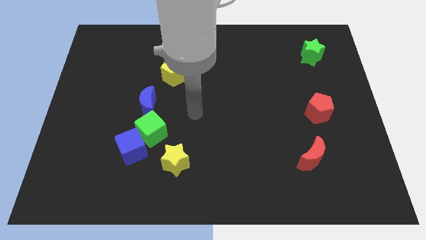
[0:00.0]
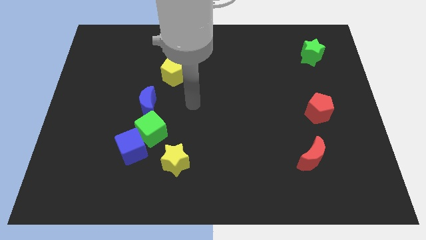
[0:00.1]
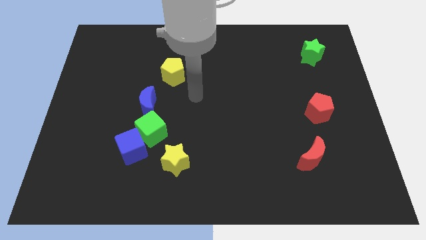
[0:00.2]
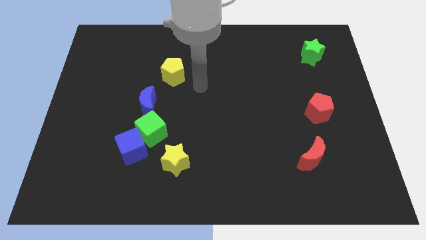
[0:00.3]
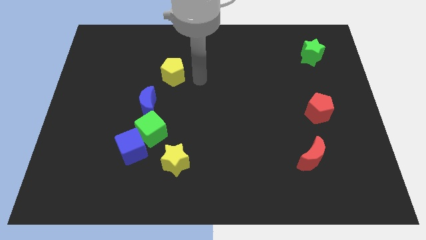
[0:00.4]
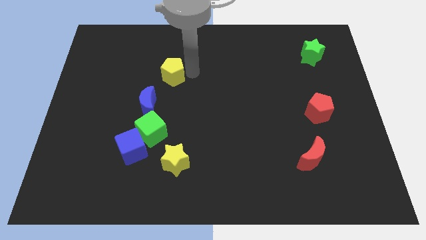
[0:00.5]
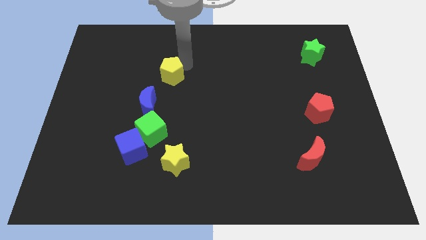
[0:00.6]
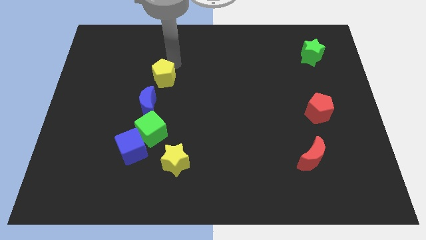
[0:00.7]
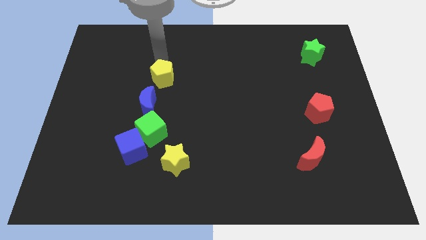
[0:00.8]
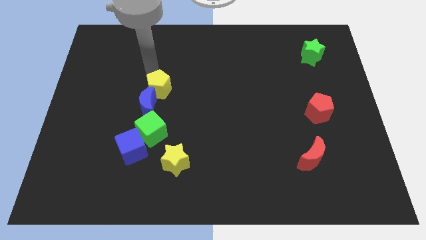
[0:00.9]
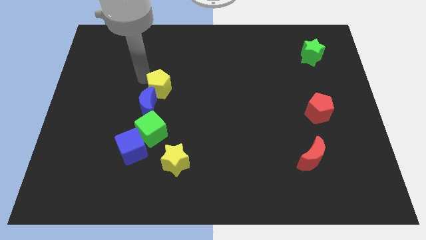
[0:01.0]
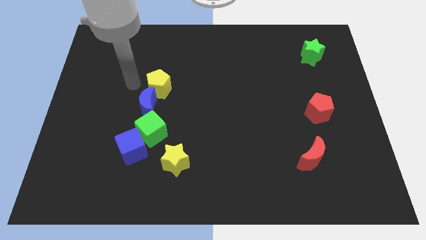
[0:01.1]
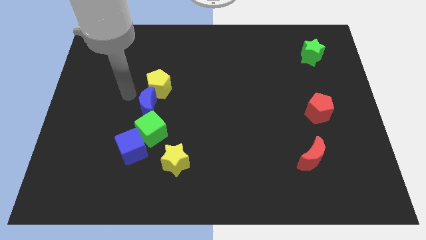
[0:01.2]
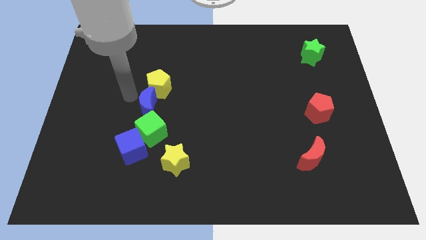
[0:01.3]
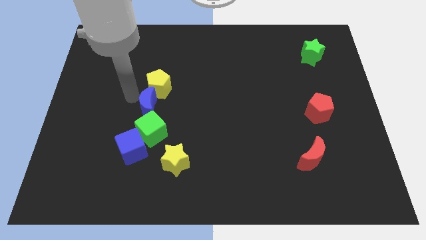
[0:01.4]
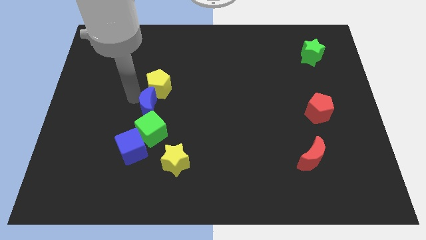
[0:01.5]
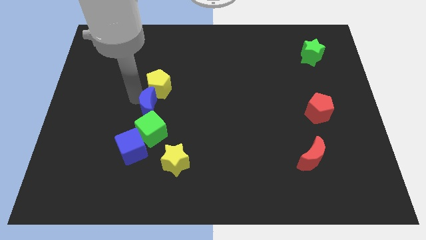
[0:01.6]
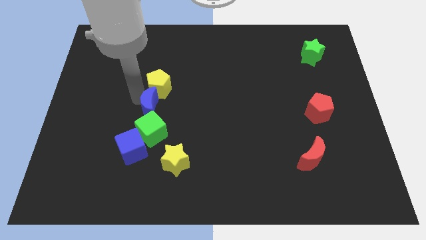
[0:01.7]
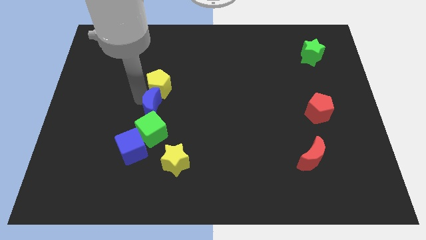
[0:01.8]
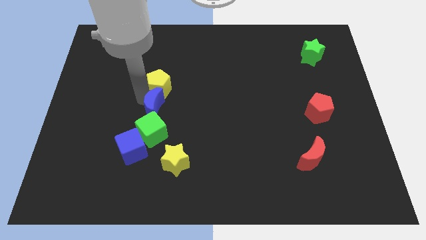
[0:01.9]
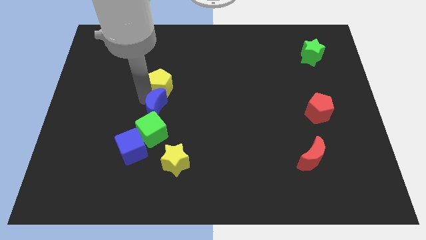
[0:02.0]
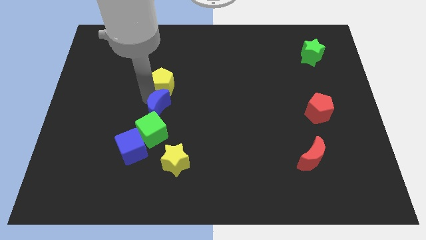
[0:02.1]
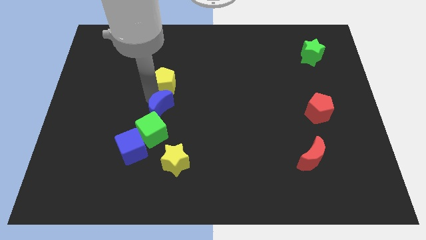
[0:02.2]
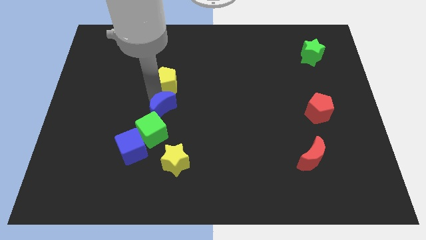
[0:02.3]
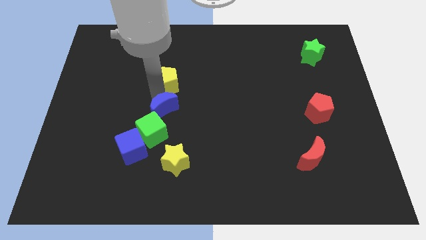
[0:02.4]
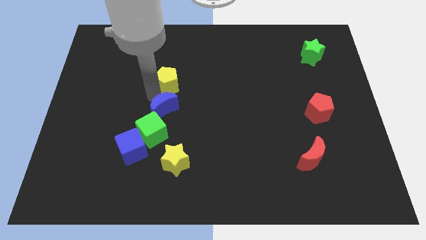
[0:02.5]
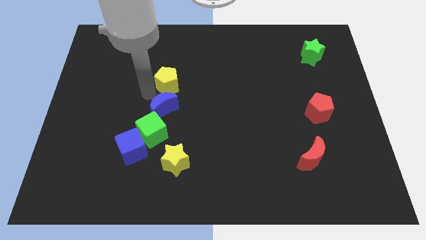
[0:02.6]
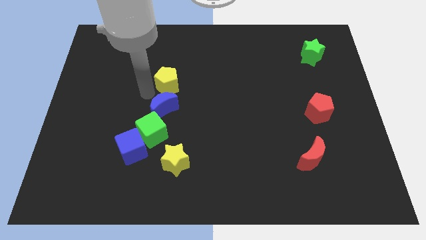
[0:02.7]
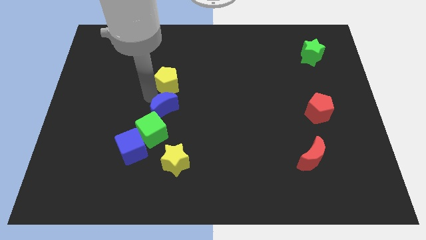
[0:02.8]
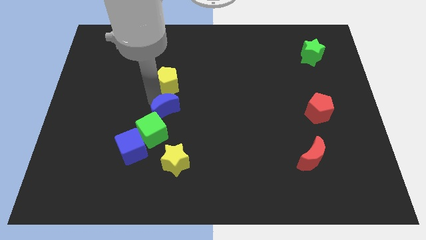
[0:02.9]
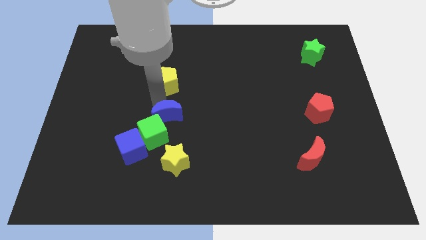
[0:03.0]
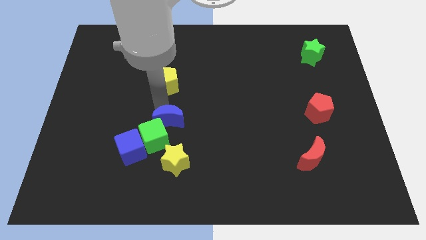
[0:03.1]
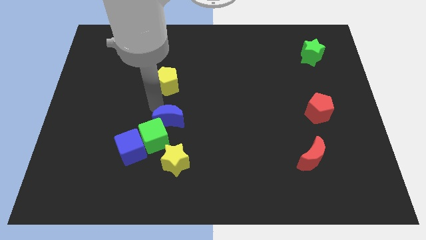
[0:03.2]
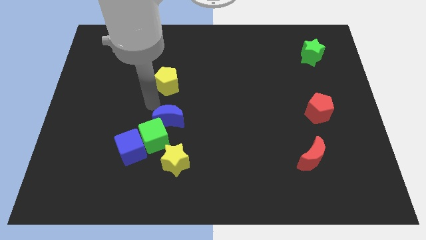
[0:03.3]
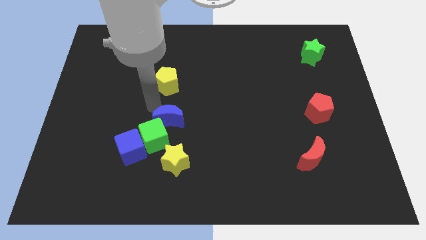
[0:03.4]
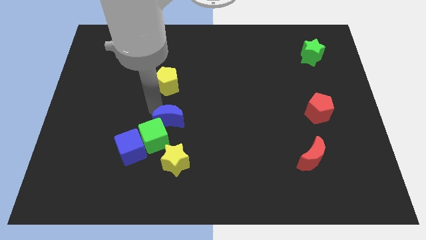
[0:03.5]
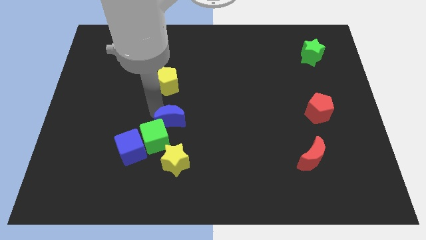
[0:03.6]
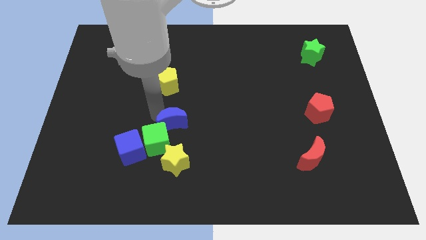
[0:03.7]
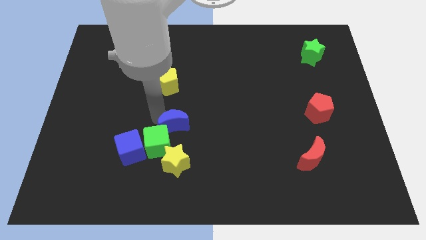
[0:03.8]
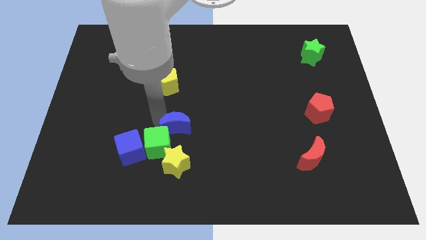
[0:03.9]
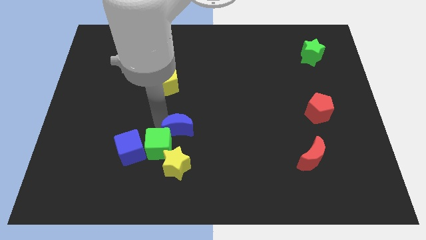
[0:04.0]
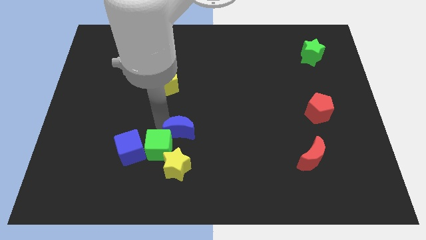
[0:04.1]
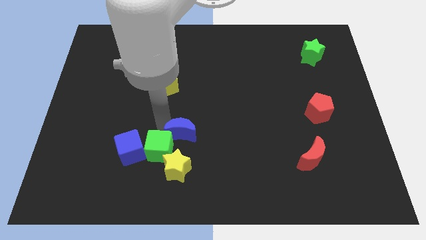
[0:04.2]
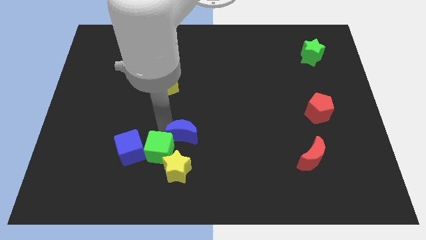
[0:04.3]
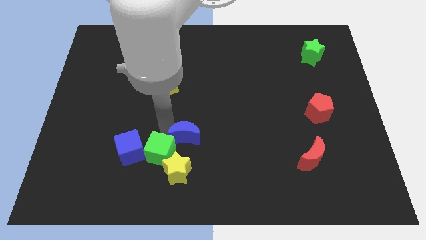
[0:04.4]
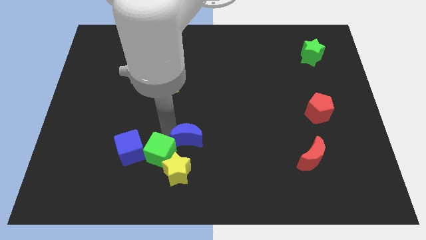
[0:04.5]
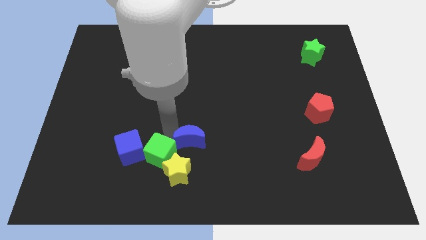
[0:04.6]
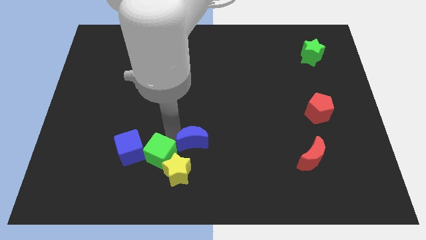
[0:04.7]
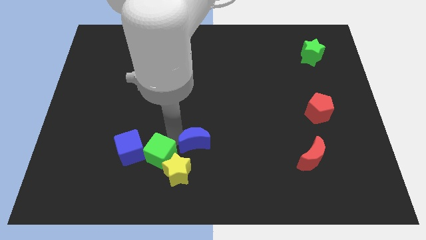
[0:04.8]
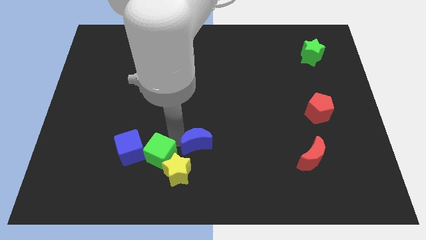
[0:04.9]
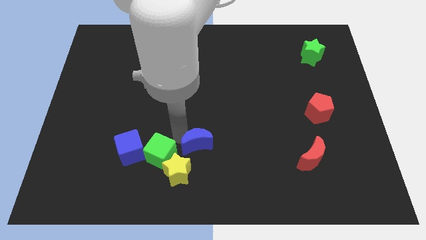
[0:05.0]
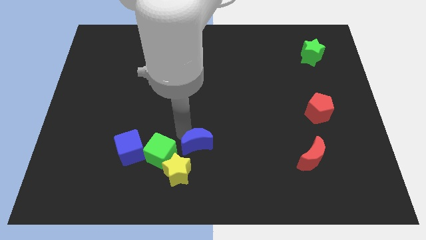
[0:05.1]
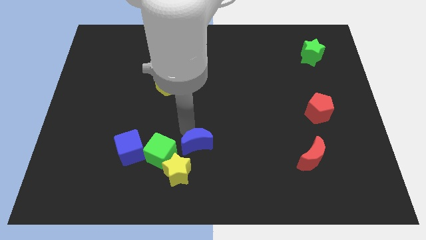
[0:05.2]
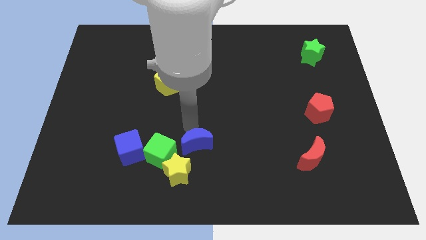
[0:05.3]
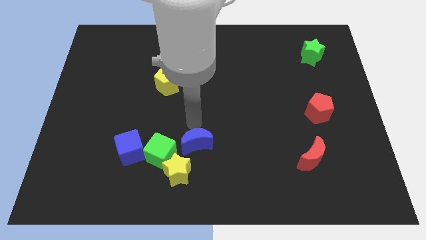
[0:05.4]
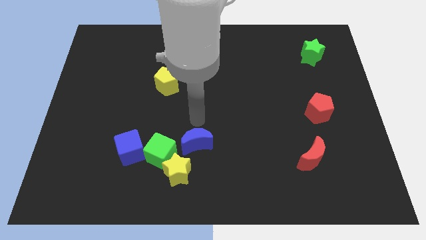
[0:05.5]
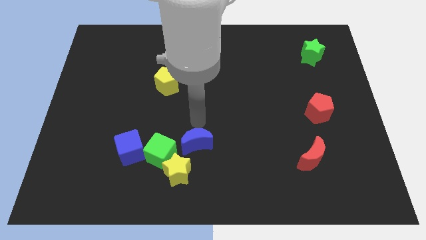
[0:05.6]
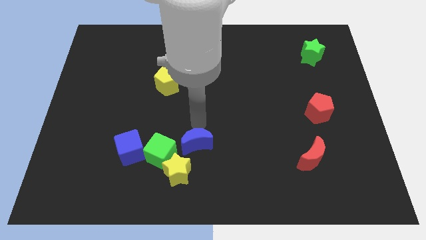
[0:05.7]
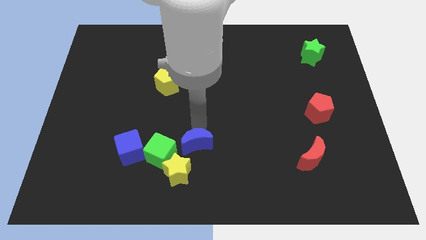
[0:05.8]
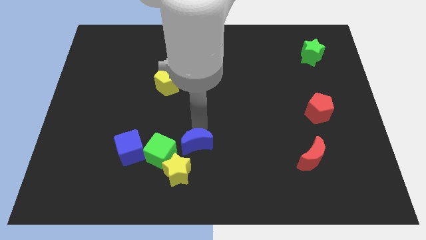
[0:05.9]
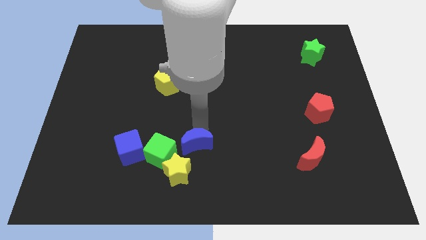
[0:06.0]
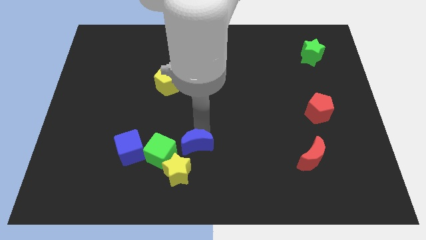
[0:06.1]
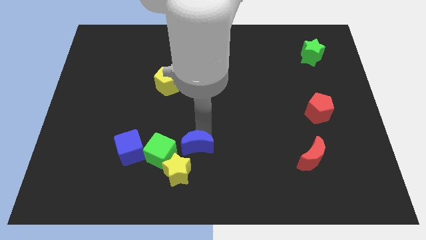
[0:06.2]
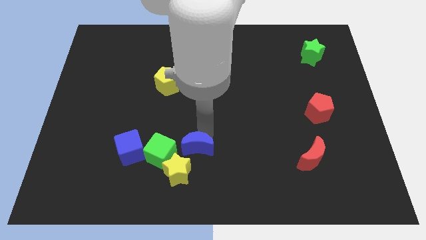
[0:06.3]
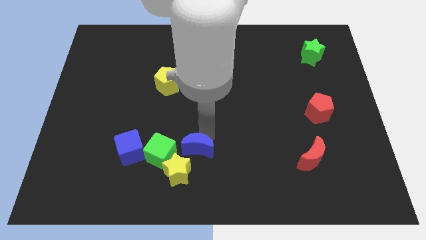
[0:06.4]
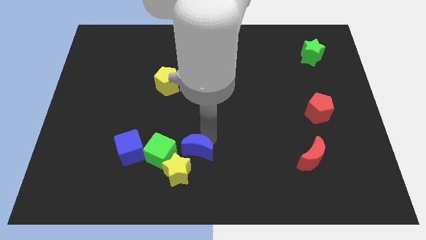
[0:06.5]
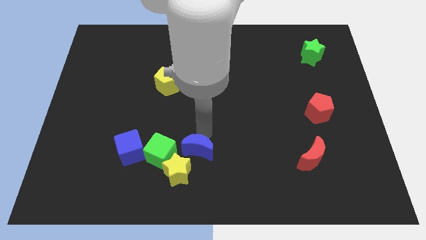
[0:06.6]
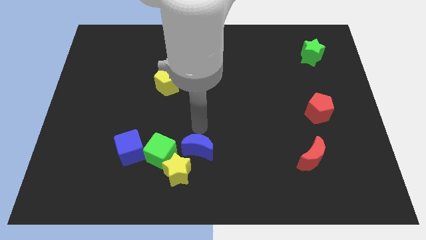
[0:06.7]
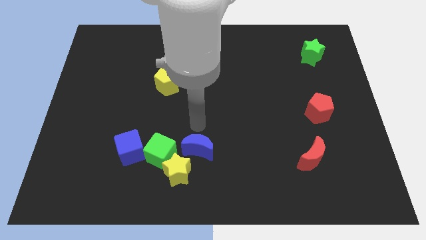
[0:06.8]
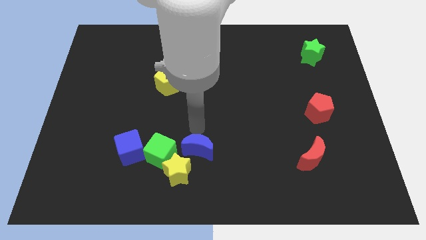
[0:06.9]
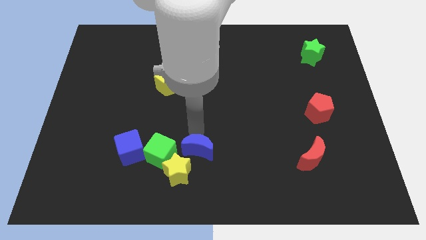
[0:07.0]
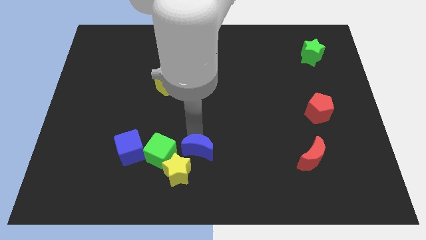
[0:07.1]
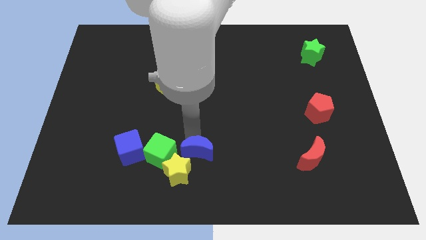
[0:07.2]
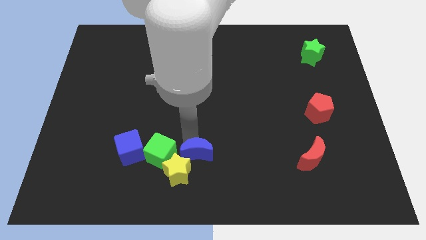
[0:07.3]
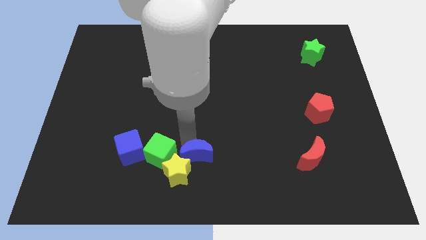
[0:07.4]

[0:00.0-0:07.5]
slide the blue moon to the bottom
